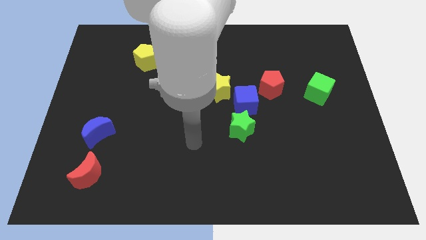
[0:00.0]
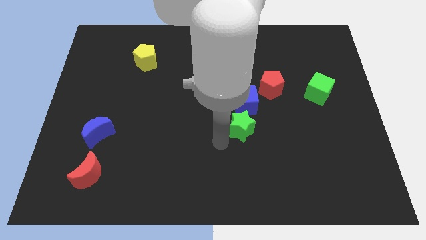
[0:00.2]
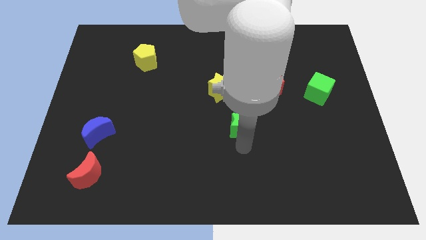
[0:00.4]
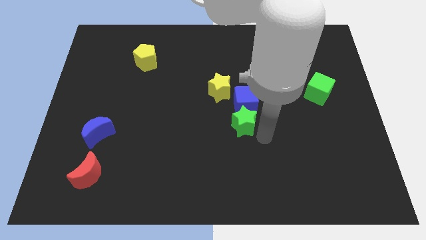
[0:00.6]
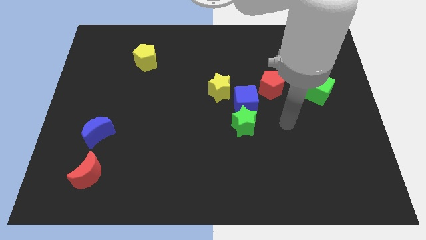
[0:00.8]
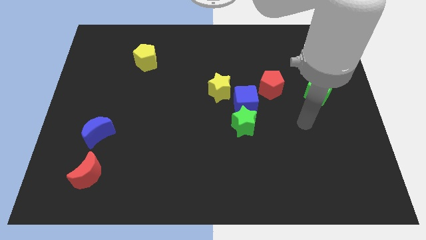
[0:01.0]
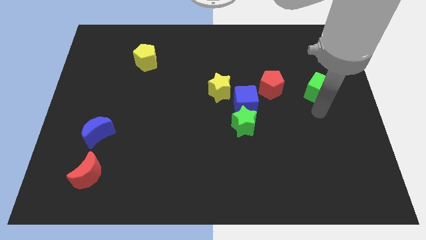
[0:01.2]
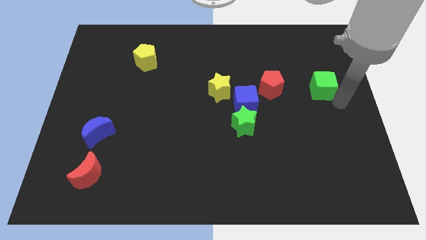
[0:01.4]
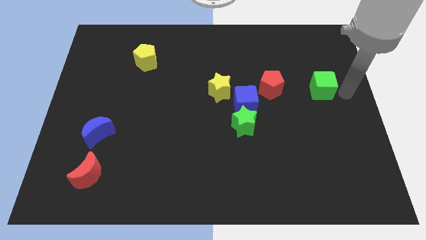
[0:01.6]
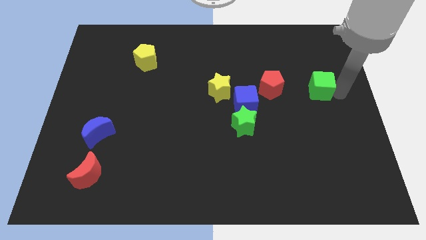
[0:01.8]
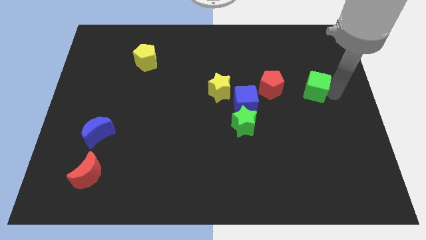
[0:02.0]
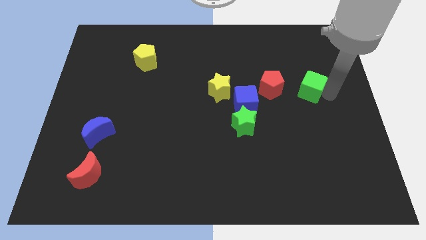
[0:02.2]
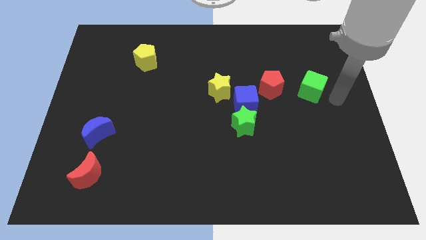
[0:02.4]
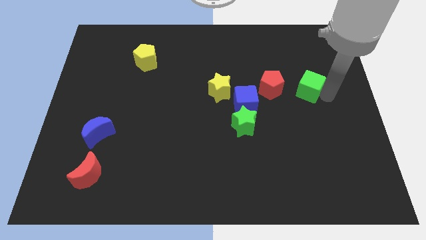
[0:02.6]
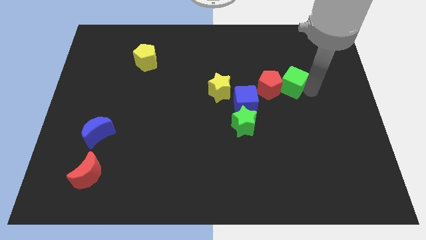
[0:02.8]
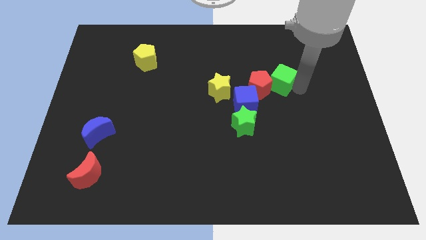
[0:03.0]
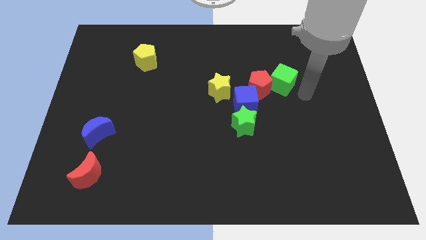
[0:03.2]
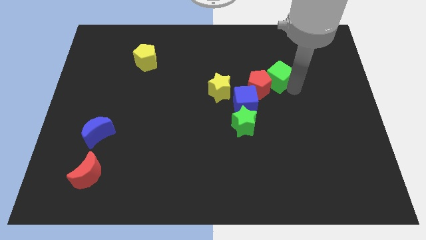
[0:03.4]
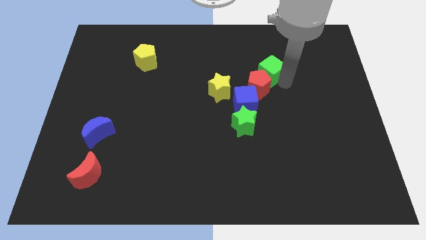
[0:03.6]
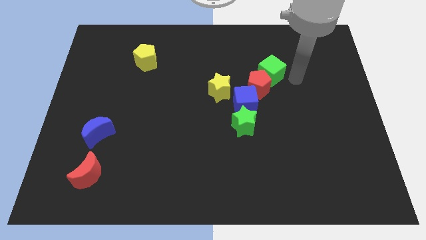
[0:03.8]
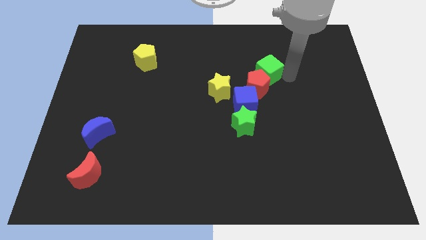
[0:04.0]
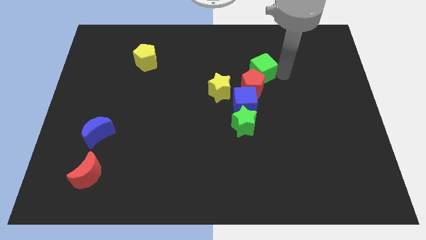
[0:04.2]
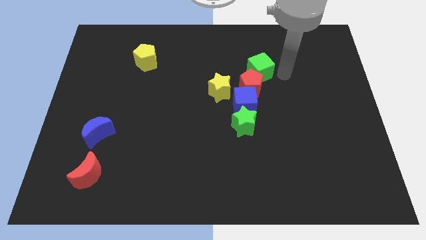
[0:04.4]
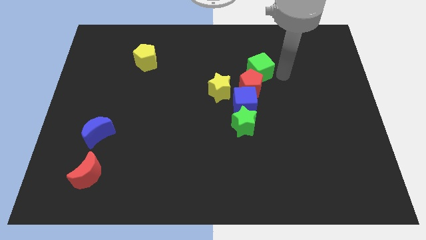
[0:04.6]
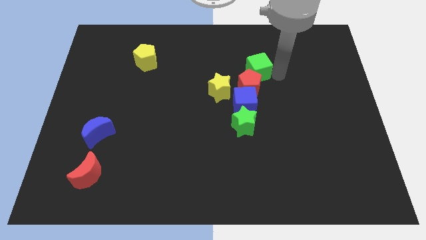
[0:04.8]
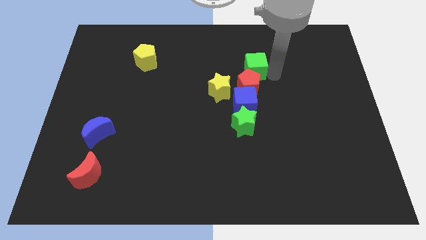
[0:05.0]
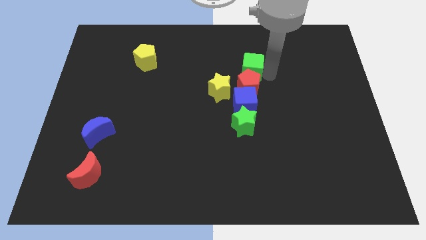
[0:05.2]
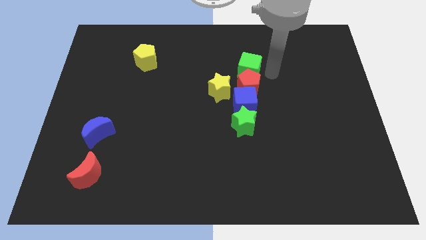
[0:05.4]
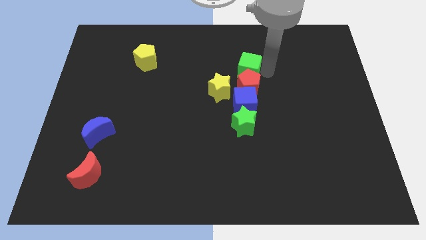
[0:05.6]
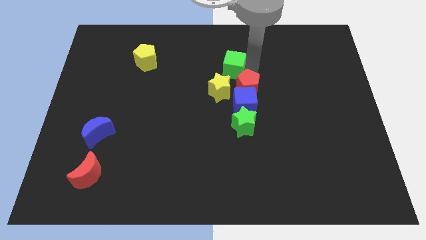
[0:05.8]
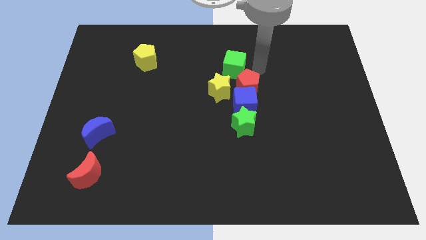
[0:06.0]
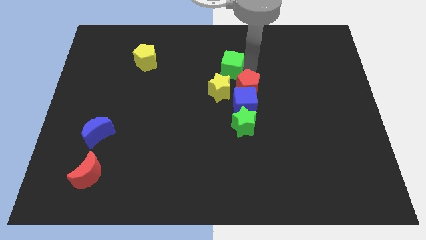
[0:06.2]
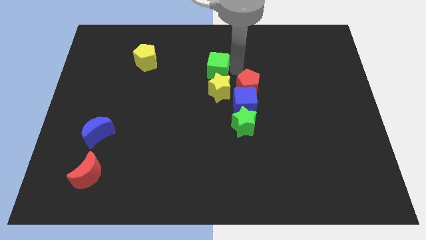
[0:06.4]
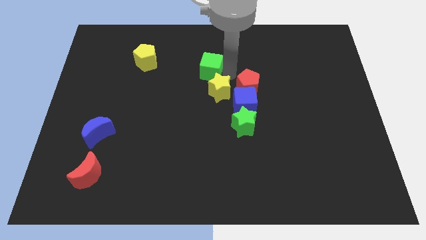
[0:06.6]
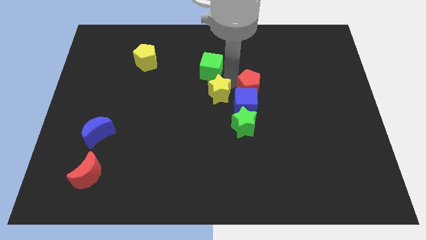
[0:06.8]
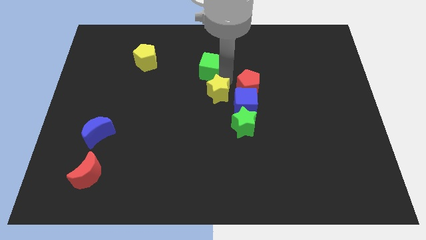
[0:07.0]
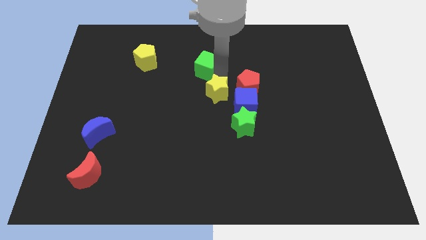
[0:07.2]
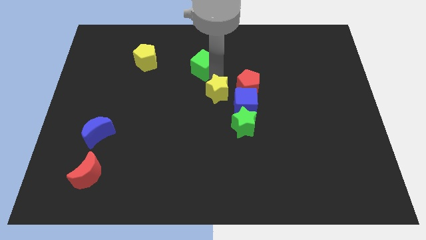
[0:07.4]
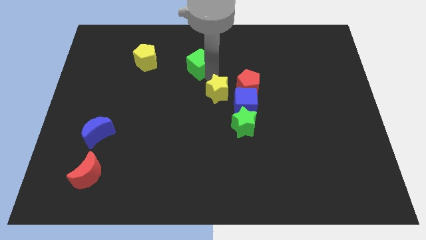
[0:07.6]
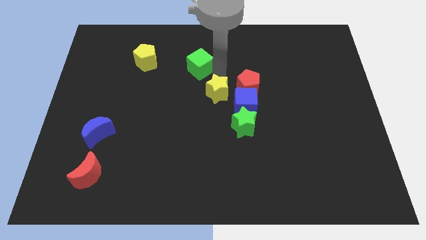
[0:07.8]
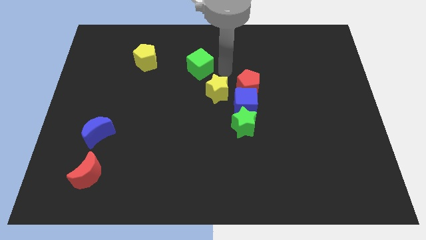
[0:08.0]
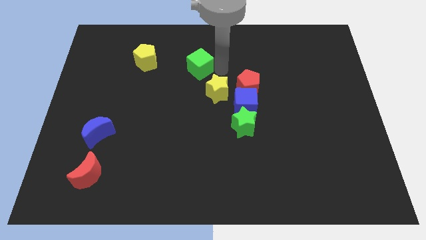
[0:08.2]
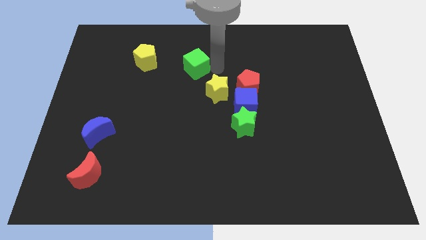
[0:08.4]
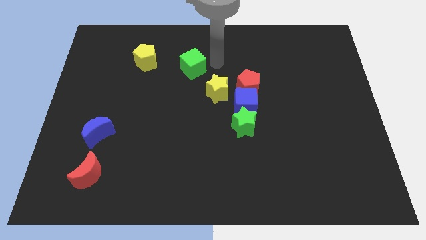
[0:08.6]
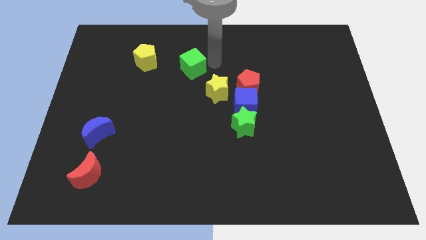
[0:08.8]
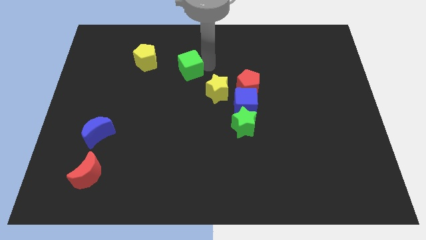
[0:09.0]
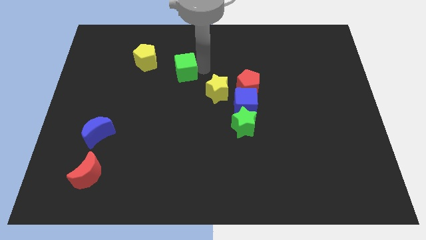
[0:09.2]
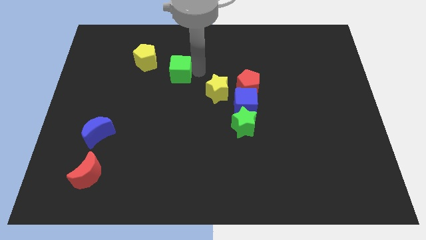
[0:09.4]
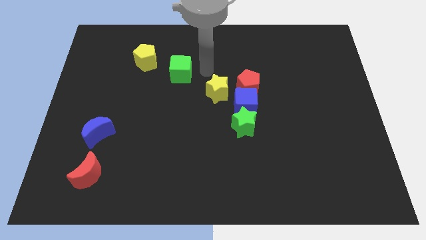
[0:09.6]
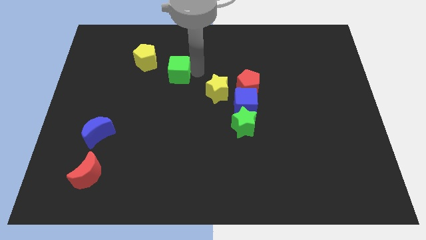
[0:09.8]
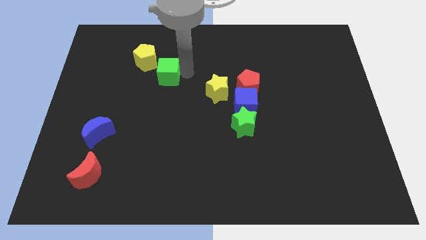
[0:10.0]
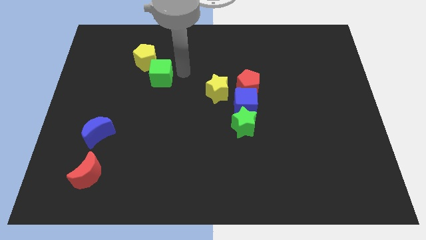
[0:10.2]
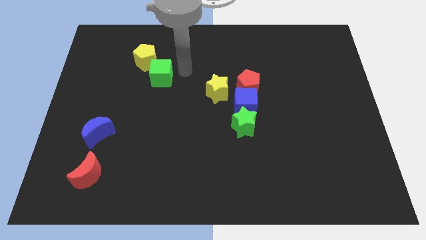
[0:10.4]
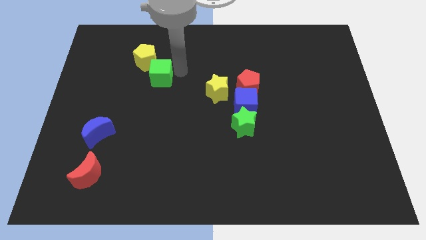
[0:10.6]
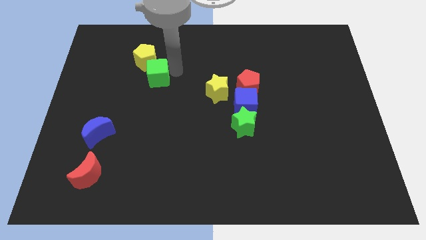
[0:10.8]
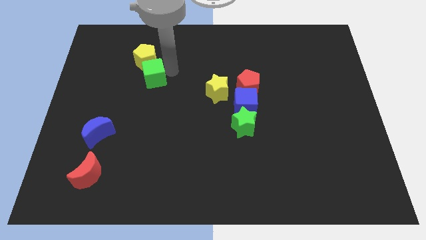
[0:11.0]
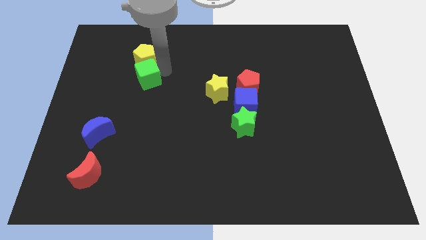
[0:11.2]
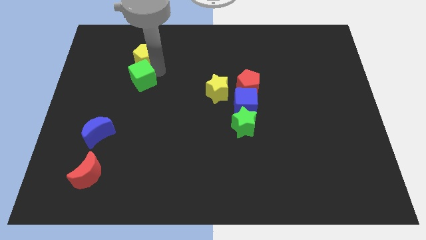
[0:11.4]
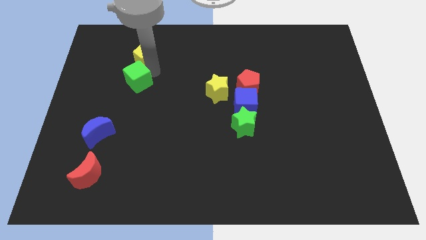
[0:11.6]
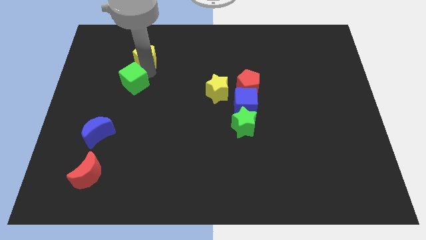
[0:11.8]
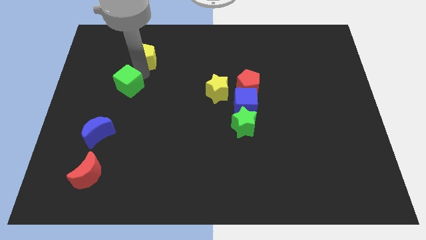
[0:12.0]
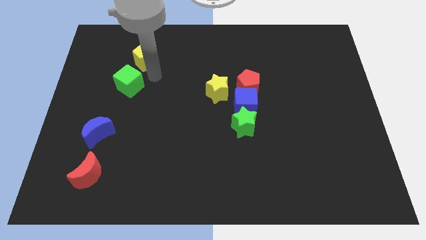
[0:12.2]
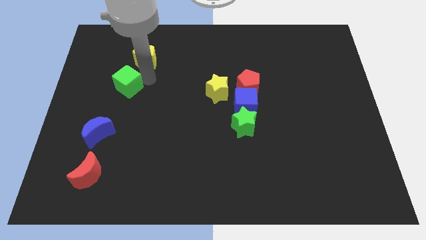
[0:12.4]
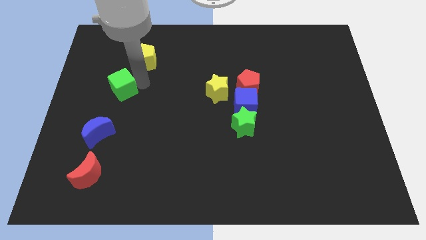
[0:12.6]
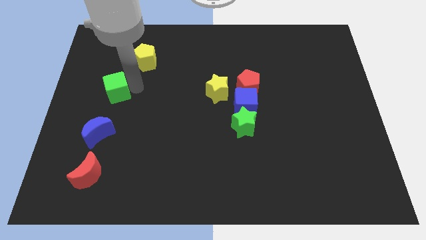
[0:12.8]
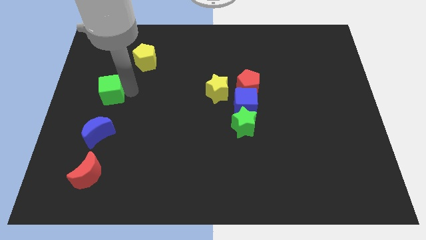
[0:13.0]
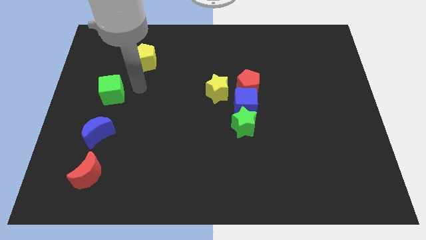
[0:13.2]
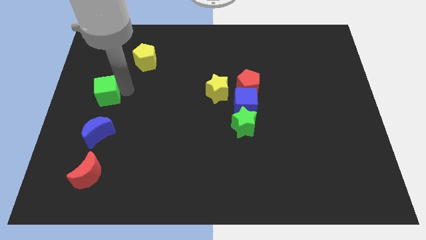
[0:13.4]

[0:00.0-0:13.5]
push the green cube to the left side of the board

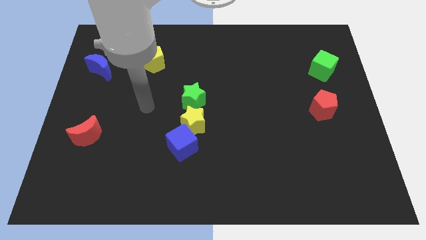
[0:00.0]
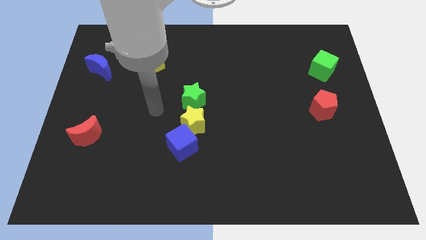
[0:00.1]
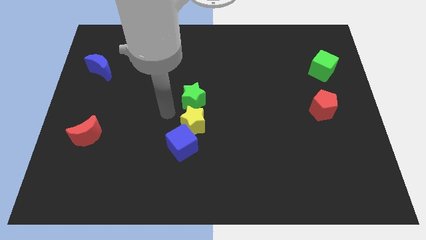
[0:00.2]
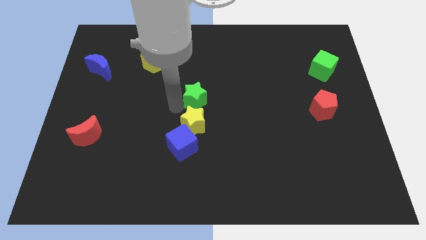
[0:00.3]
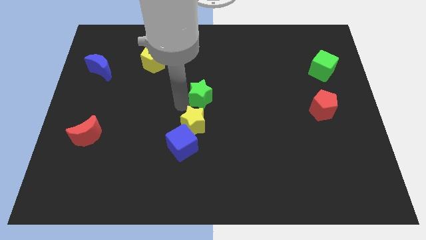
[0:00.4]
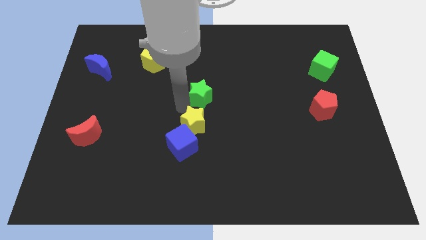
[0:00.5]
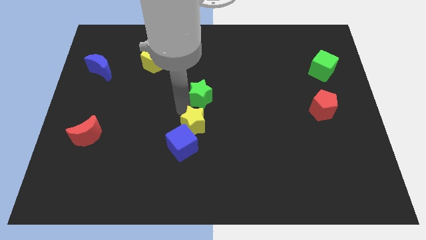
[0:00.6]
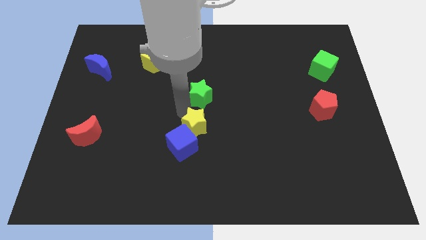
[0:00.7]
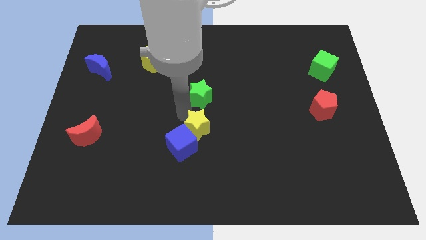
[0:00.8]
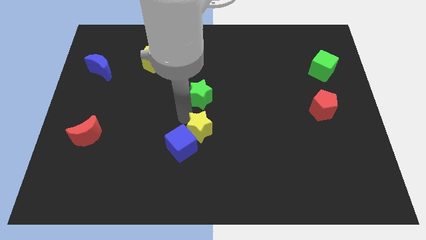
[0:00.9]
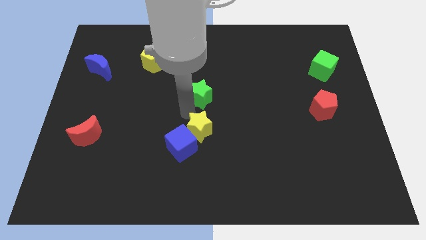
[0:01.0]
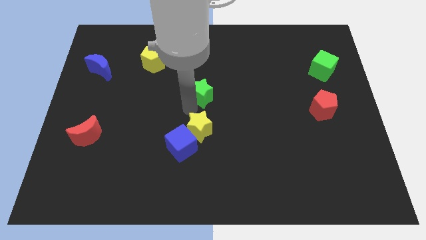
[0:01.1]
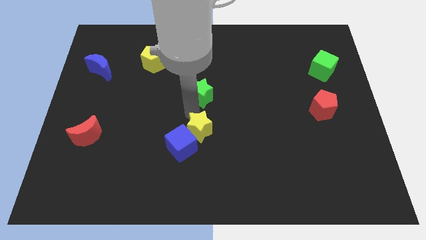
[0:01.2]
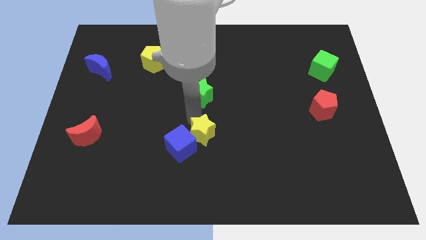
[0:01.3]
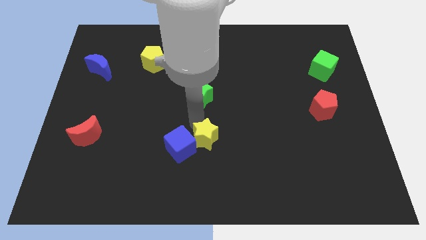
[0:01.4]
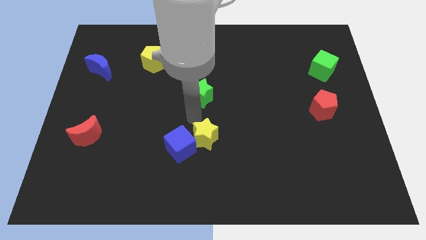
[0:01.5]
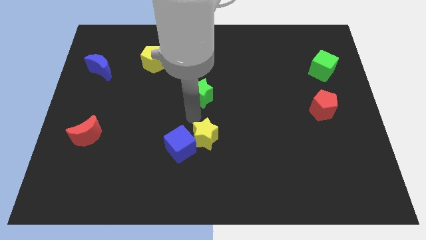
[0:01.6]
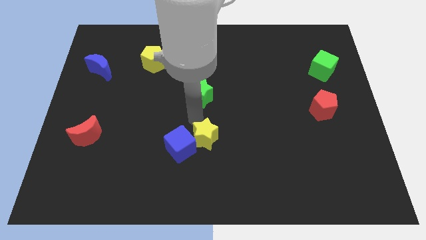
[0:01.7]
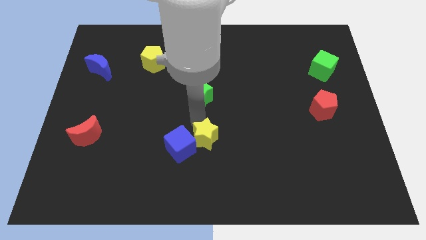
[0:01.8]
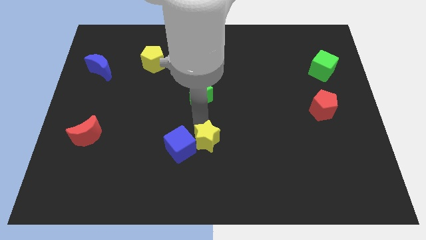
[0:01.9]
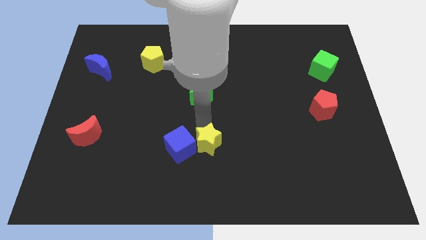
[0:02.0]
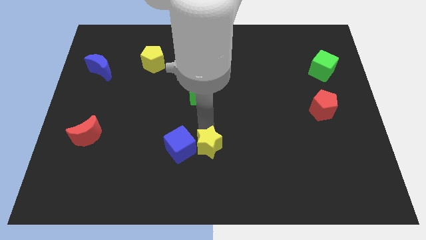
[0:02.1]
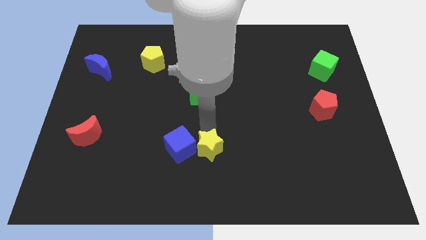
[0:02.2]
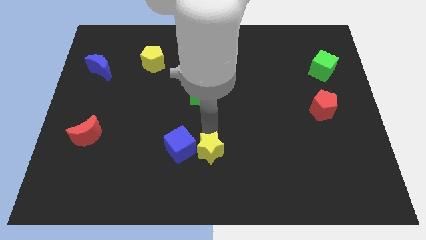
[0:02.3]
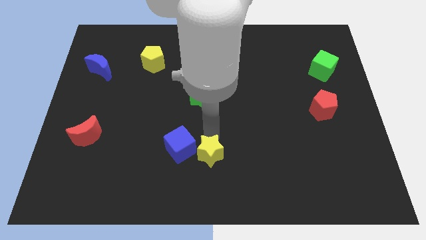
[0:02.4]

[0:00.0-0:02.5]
slide the yellow star to the bottom side
